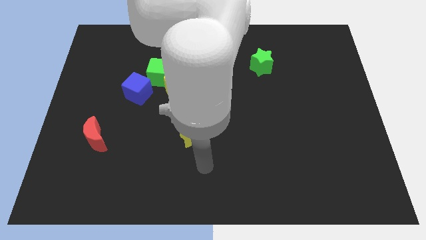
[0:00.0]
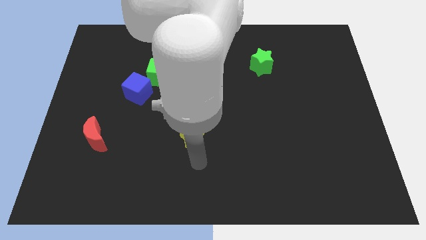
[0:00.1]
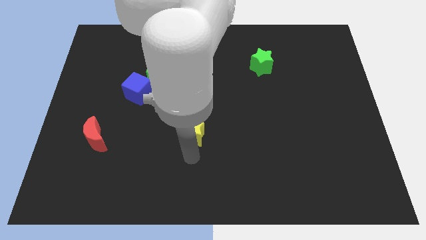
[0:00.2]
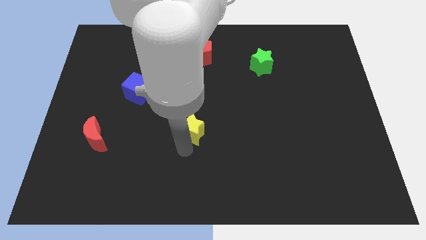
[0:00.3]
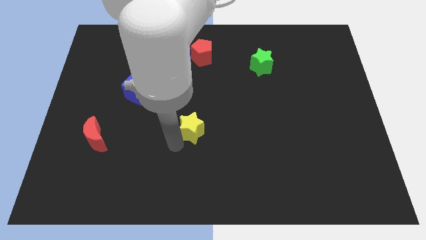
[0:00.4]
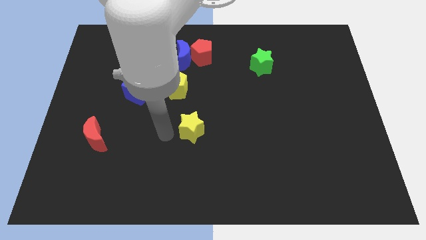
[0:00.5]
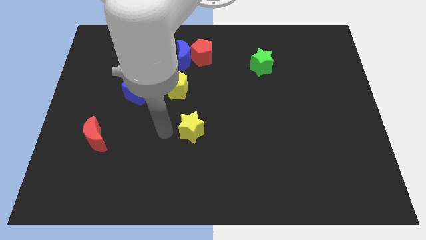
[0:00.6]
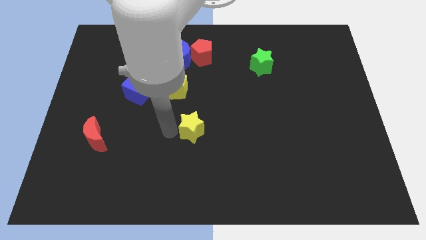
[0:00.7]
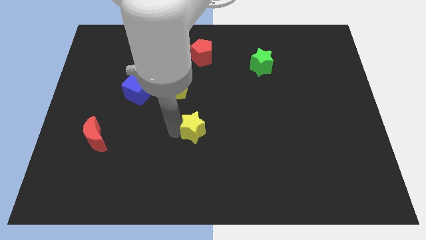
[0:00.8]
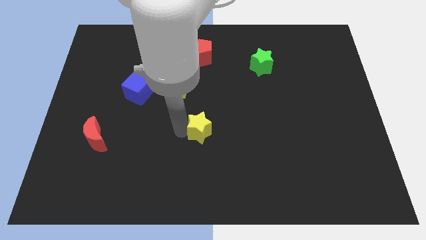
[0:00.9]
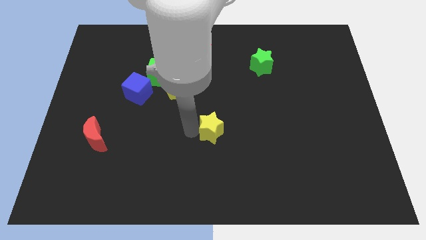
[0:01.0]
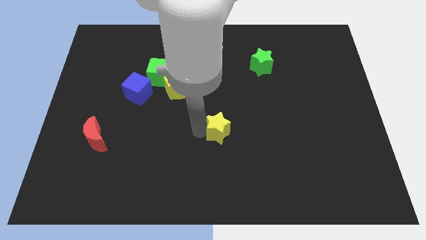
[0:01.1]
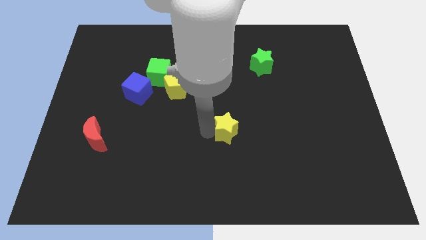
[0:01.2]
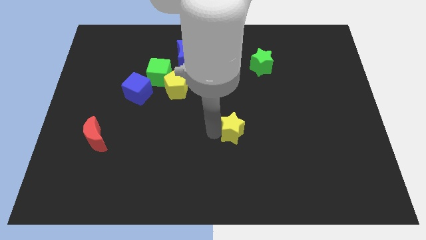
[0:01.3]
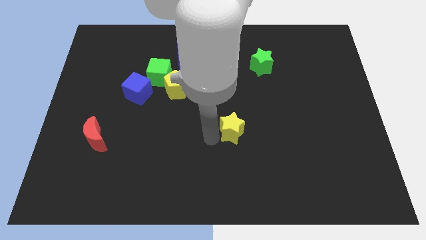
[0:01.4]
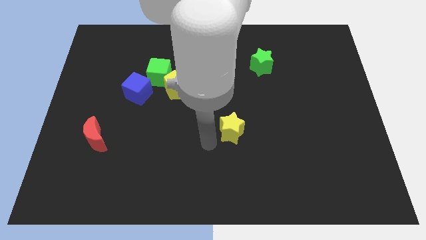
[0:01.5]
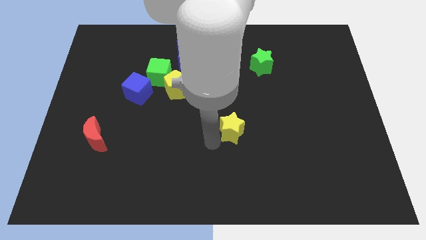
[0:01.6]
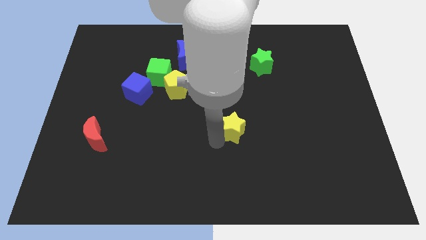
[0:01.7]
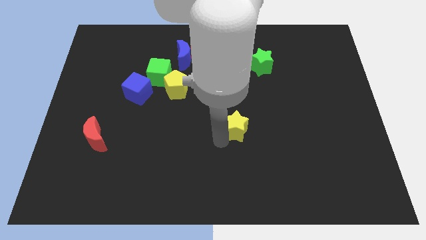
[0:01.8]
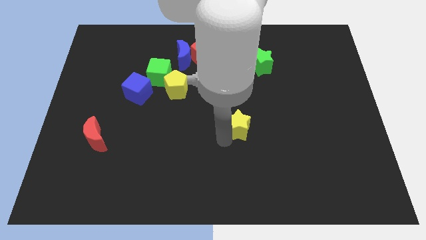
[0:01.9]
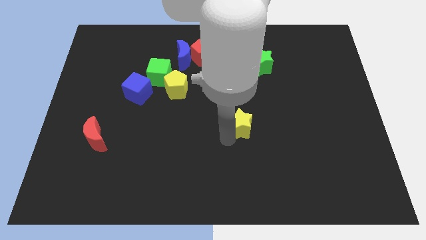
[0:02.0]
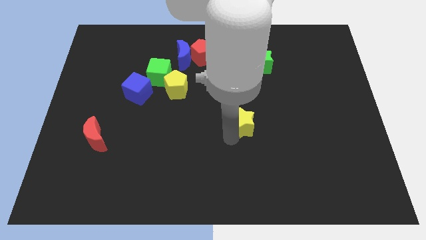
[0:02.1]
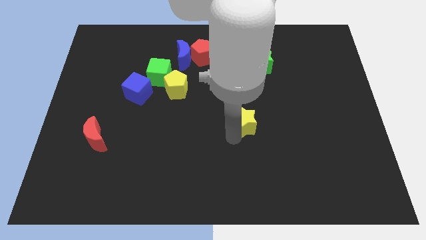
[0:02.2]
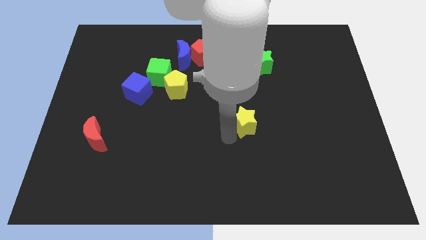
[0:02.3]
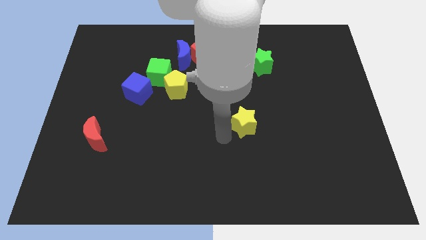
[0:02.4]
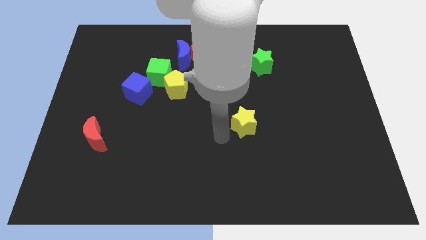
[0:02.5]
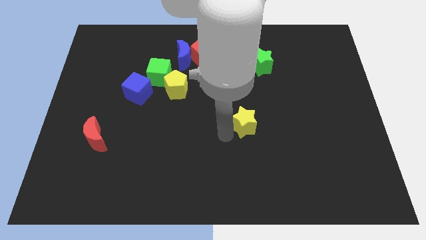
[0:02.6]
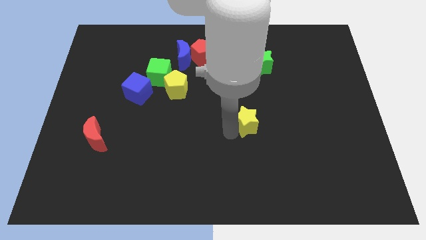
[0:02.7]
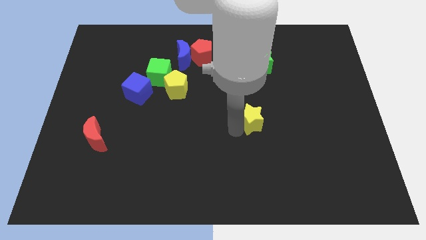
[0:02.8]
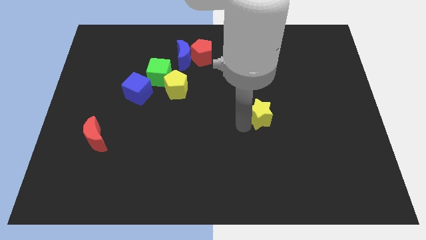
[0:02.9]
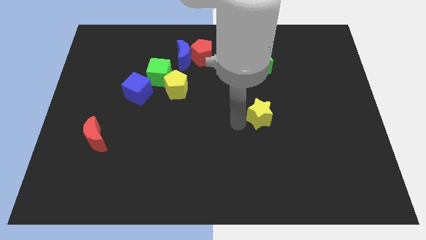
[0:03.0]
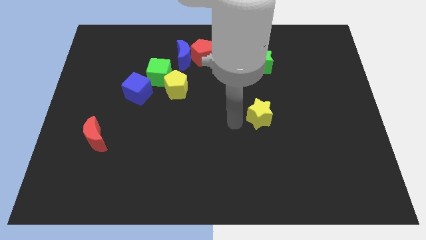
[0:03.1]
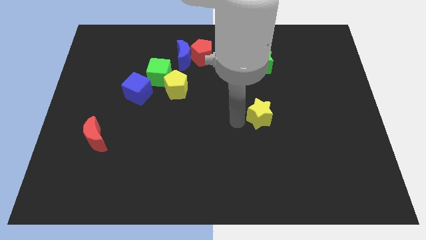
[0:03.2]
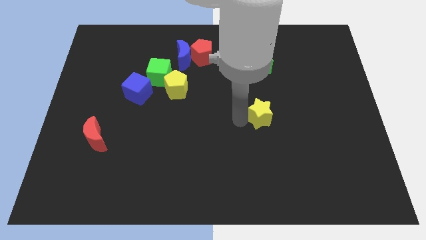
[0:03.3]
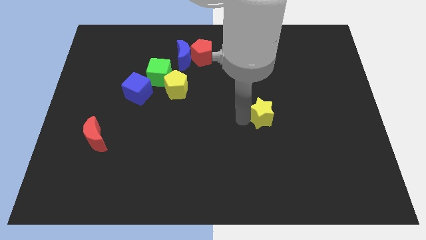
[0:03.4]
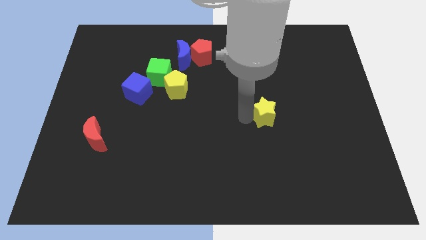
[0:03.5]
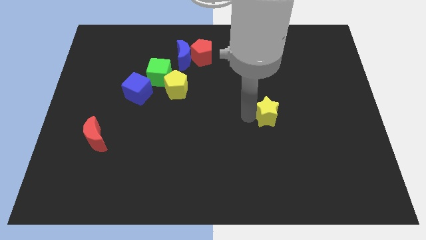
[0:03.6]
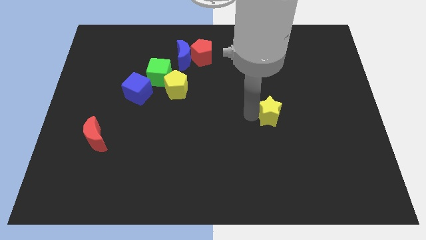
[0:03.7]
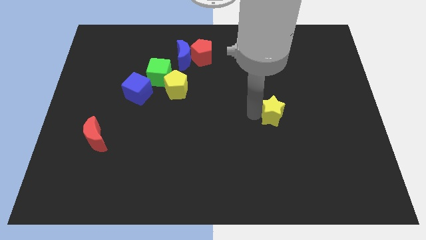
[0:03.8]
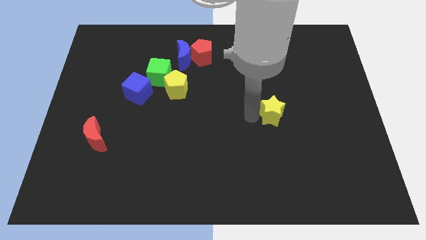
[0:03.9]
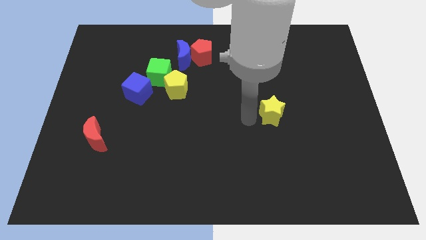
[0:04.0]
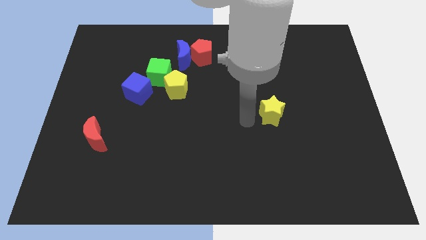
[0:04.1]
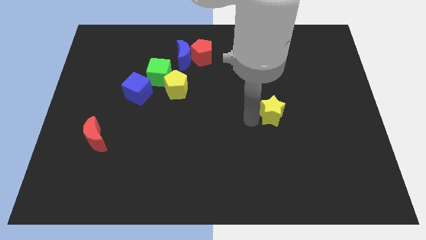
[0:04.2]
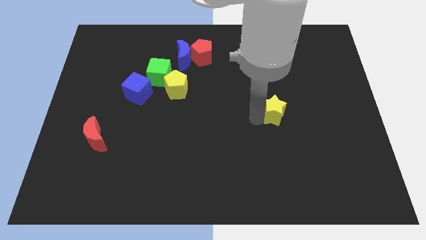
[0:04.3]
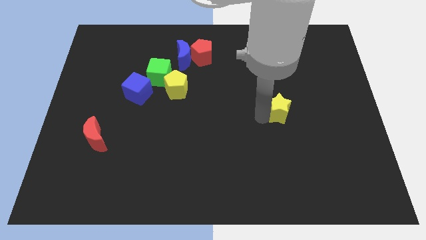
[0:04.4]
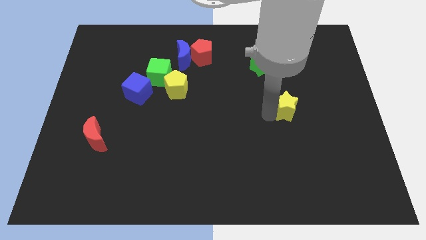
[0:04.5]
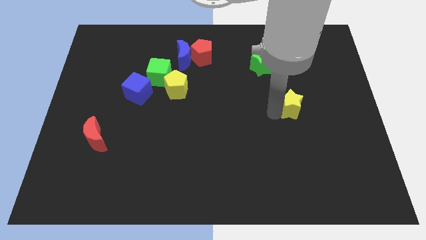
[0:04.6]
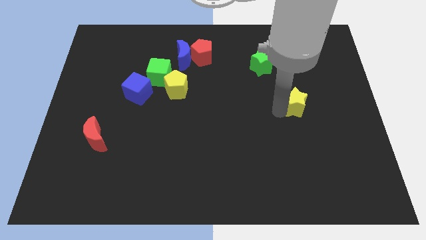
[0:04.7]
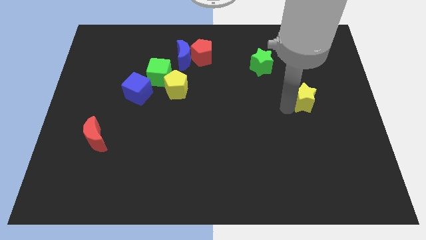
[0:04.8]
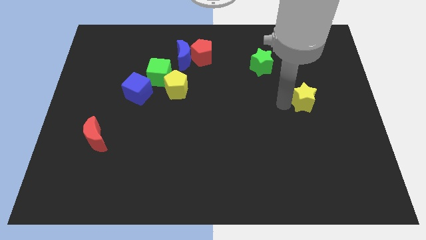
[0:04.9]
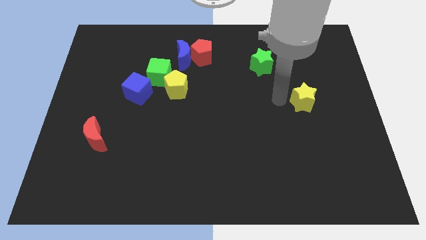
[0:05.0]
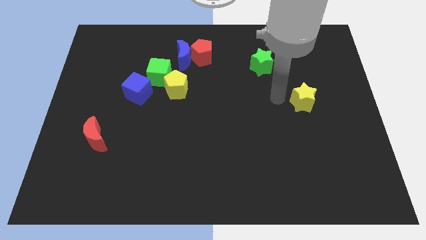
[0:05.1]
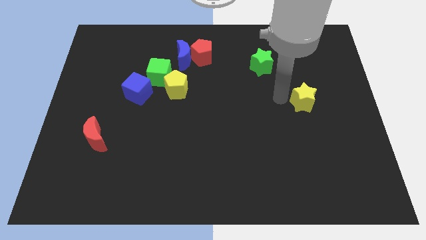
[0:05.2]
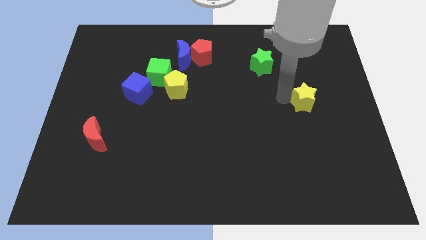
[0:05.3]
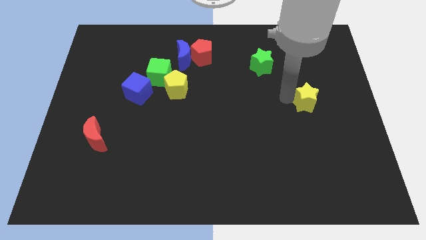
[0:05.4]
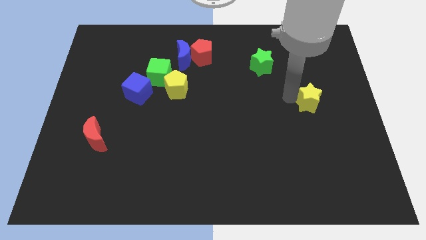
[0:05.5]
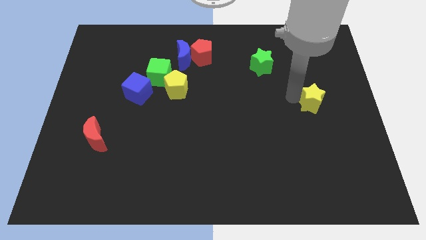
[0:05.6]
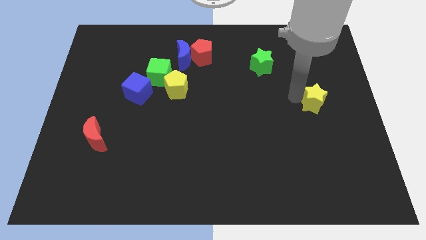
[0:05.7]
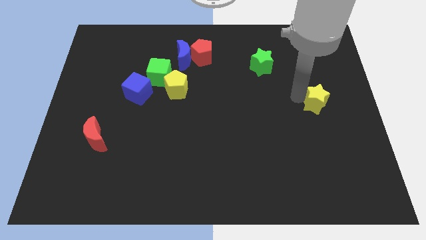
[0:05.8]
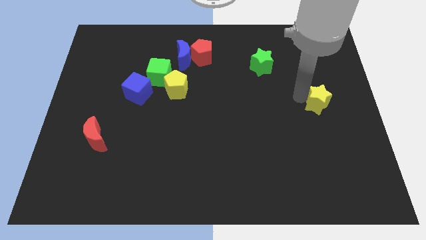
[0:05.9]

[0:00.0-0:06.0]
move the yellow star to the center right

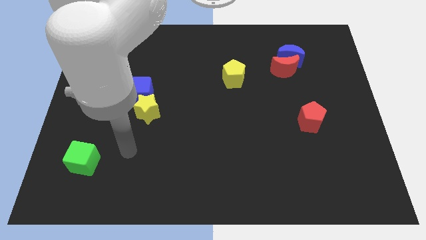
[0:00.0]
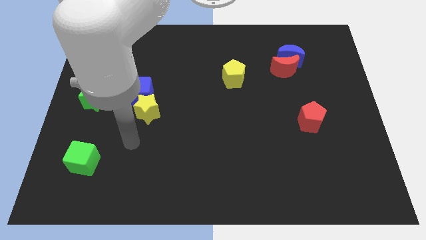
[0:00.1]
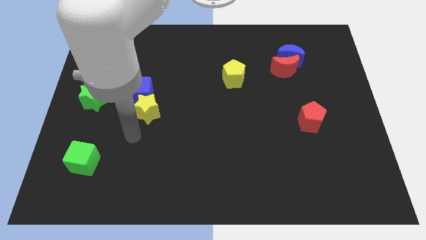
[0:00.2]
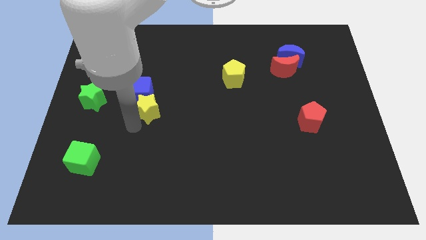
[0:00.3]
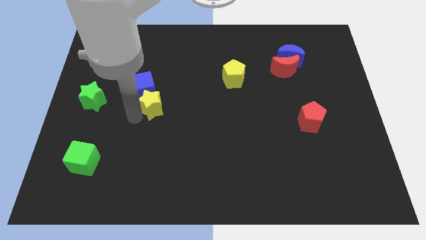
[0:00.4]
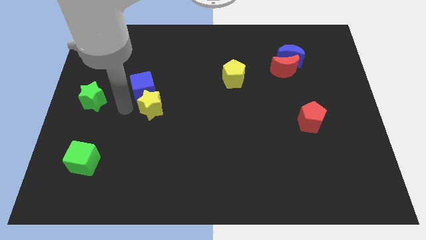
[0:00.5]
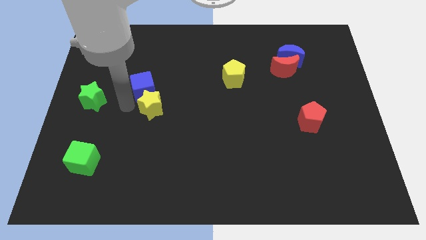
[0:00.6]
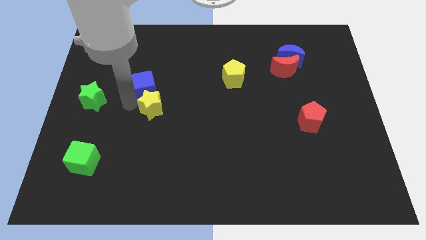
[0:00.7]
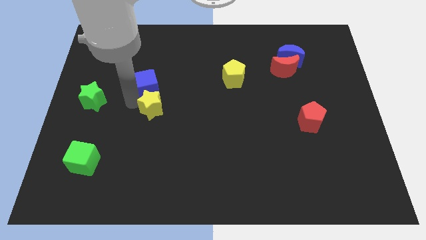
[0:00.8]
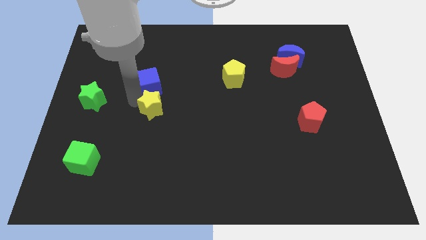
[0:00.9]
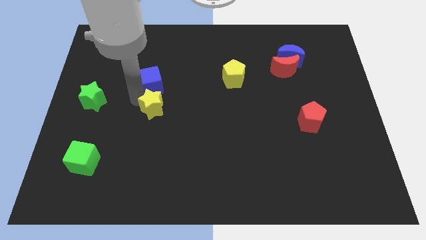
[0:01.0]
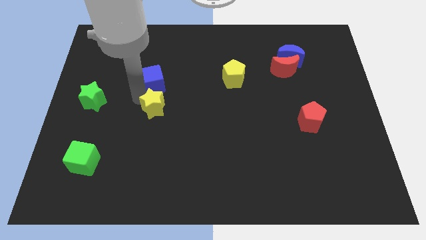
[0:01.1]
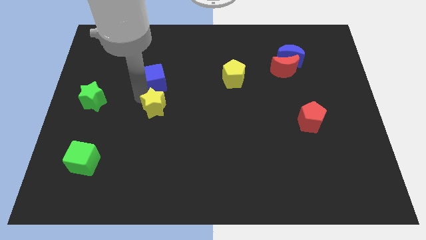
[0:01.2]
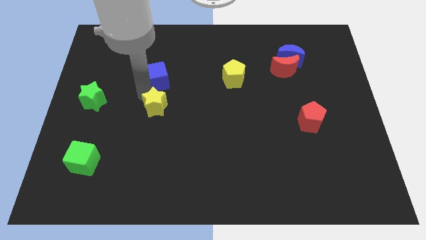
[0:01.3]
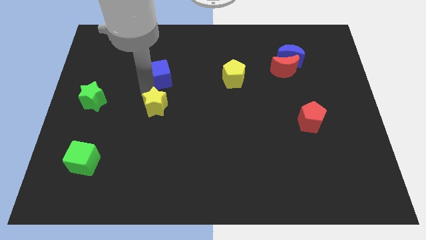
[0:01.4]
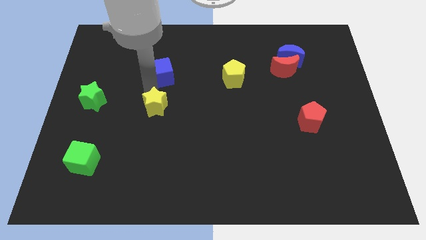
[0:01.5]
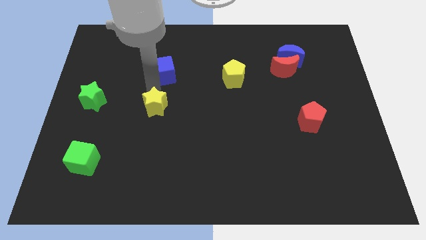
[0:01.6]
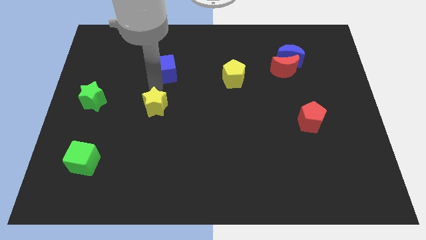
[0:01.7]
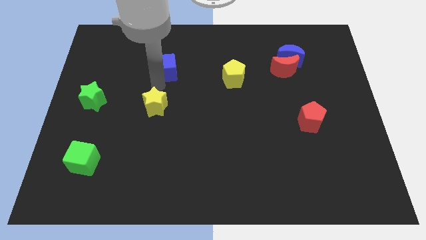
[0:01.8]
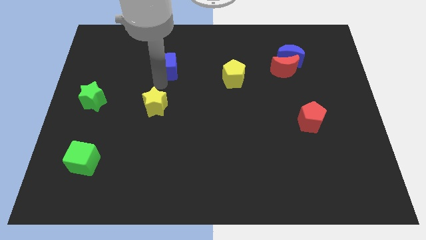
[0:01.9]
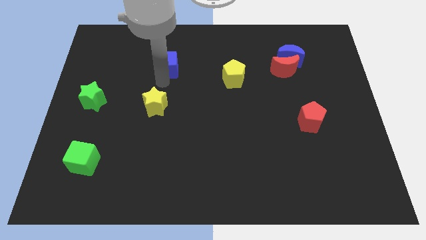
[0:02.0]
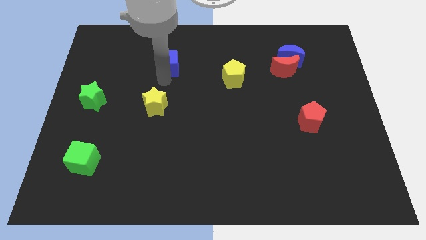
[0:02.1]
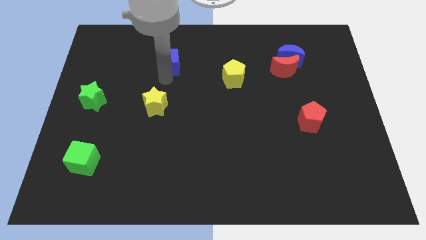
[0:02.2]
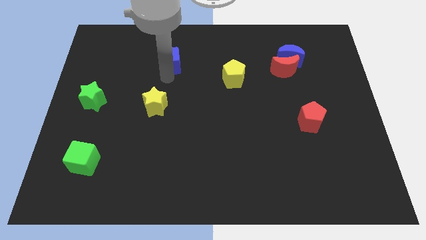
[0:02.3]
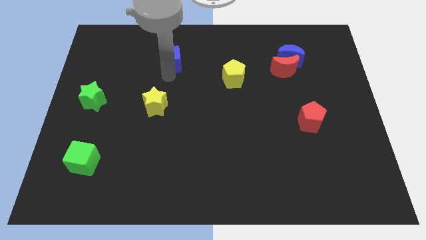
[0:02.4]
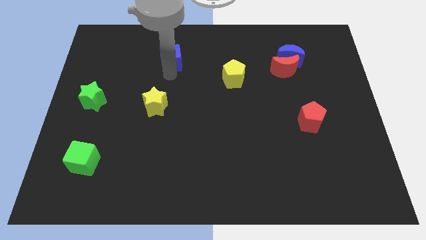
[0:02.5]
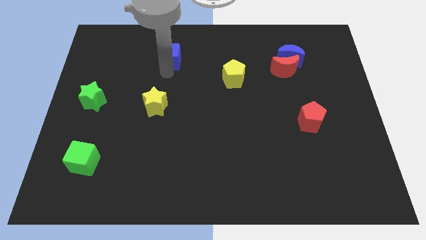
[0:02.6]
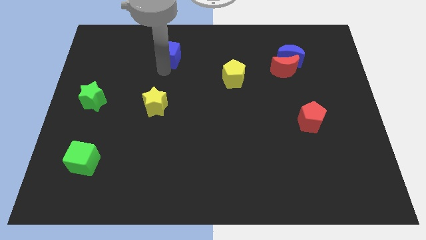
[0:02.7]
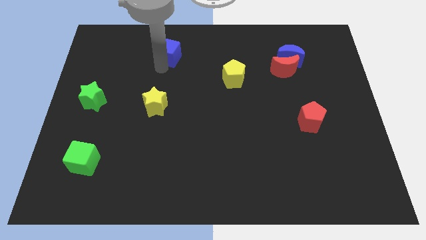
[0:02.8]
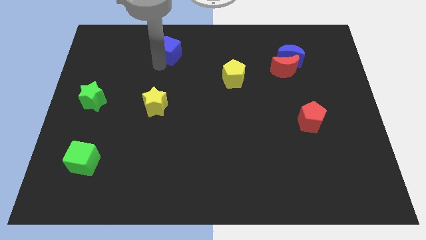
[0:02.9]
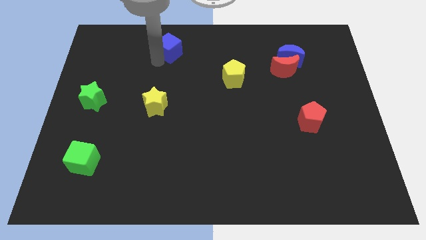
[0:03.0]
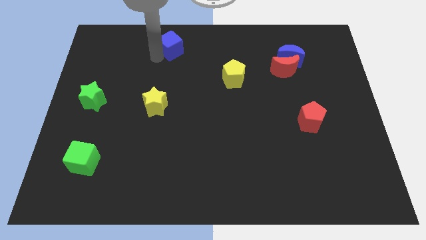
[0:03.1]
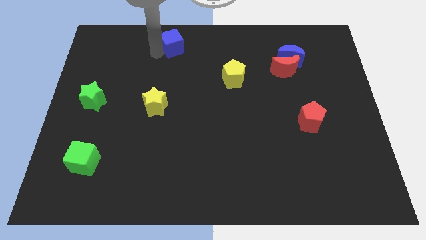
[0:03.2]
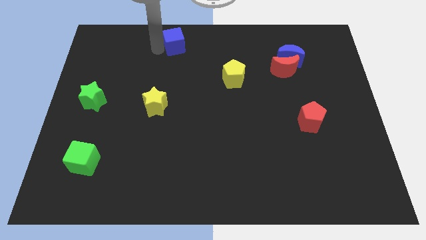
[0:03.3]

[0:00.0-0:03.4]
slide the blue cube to the towards your base
